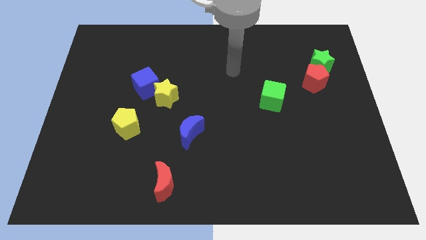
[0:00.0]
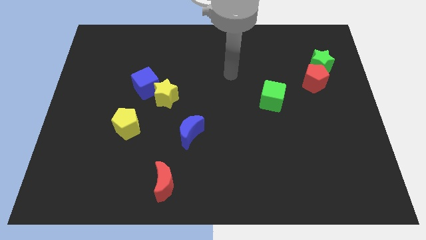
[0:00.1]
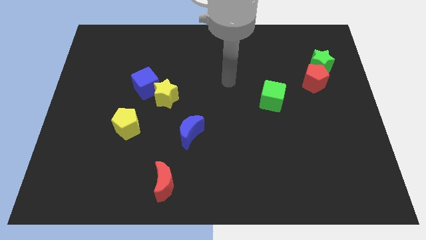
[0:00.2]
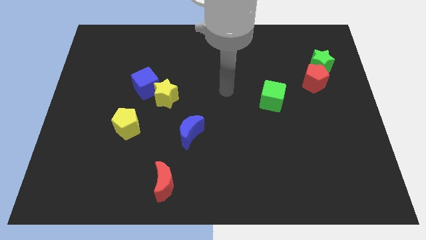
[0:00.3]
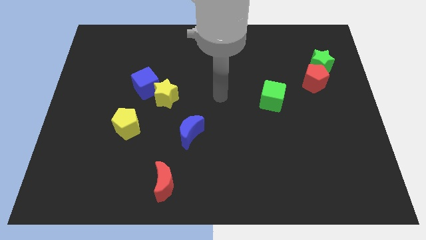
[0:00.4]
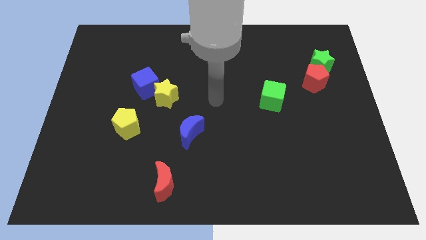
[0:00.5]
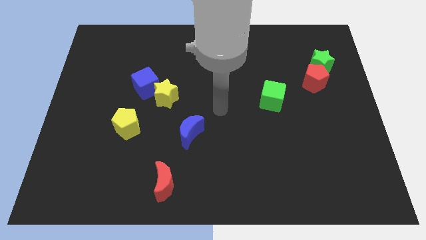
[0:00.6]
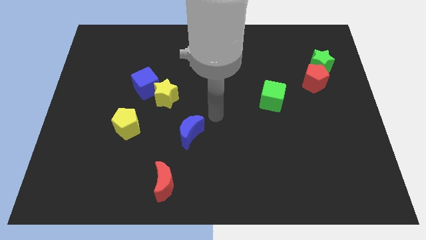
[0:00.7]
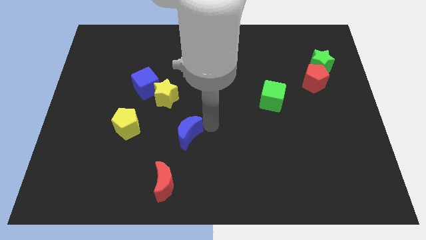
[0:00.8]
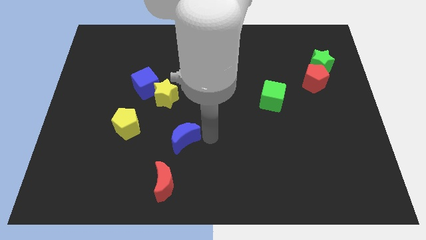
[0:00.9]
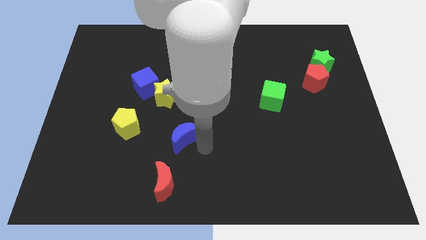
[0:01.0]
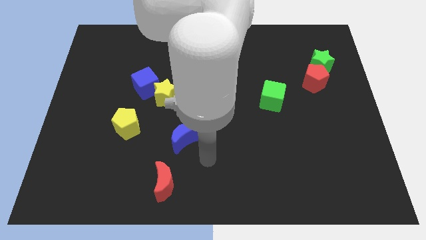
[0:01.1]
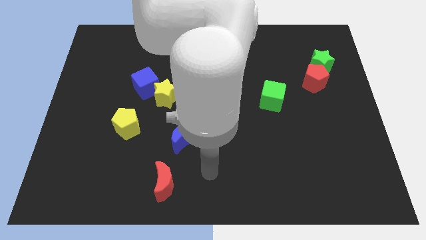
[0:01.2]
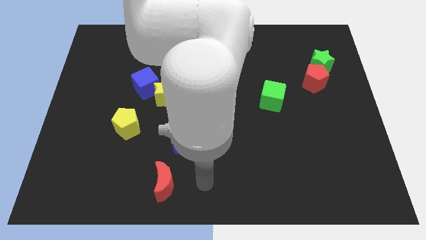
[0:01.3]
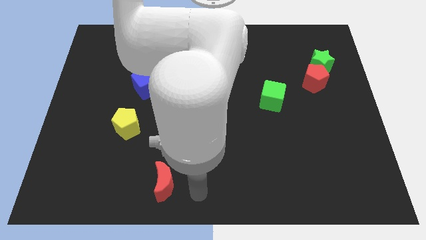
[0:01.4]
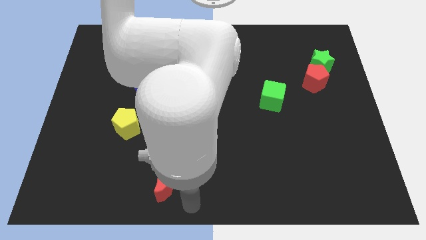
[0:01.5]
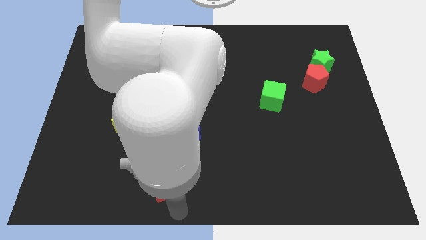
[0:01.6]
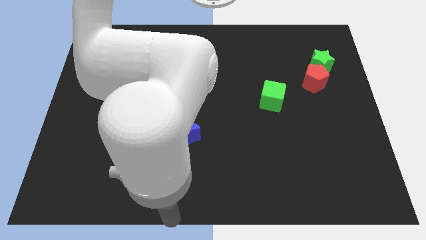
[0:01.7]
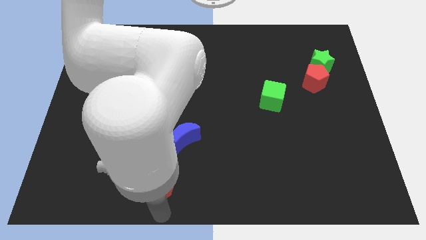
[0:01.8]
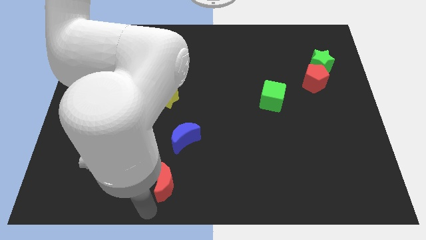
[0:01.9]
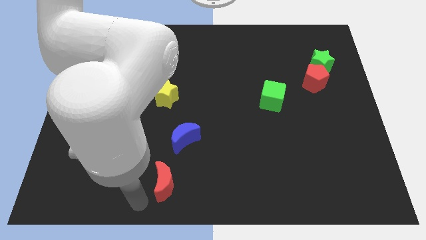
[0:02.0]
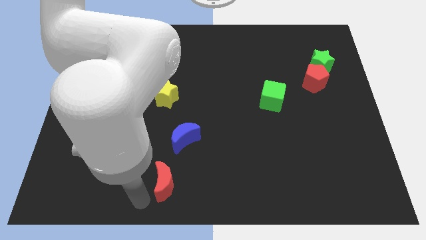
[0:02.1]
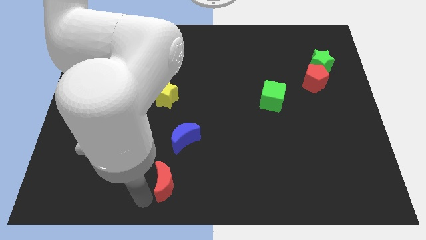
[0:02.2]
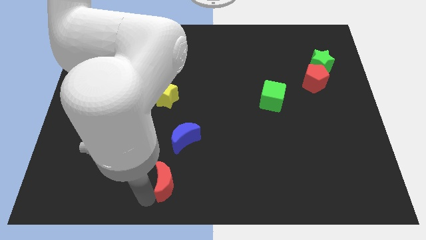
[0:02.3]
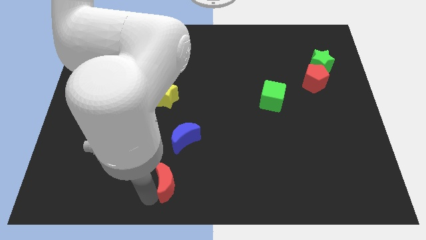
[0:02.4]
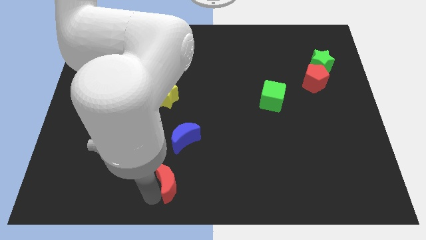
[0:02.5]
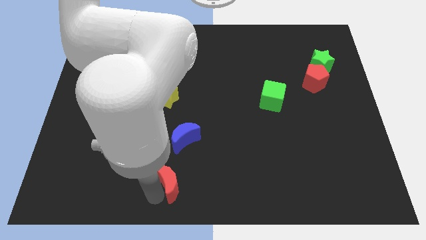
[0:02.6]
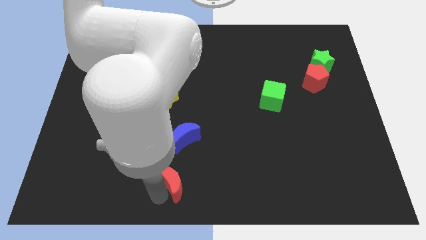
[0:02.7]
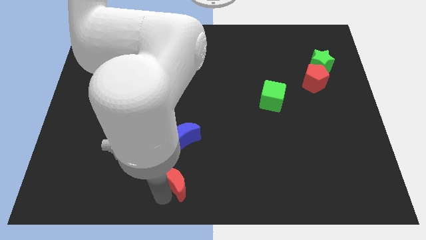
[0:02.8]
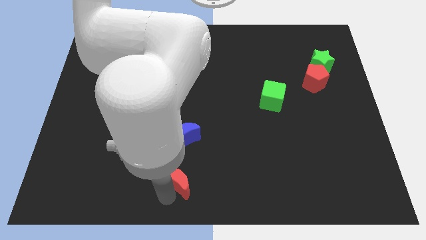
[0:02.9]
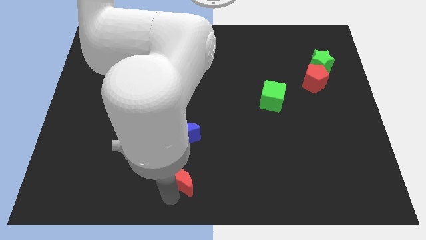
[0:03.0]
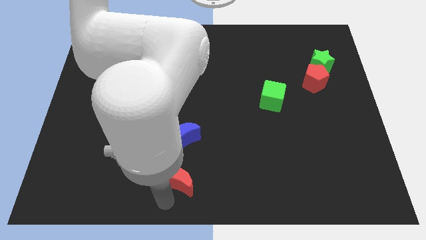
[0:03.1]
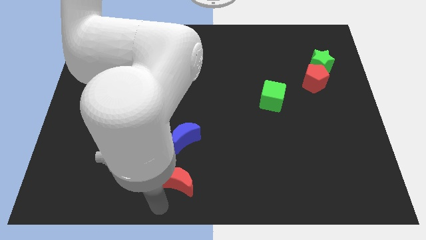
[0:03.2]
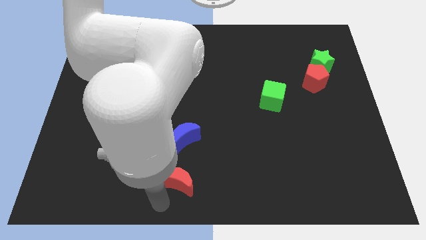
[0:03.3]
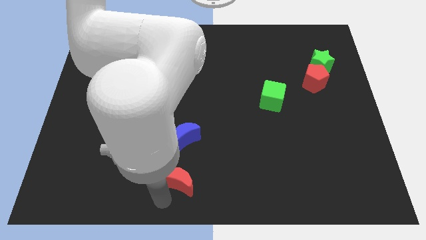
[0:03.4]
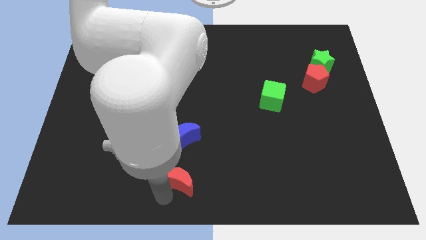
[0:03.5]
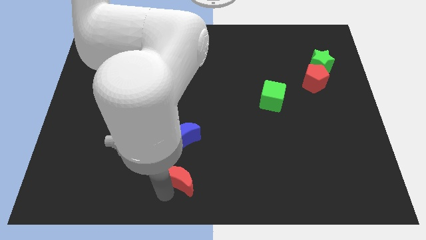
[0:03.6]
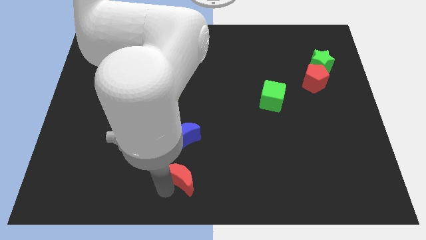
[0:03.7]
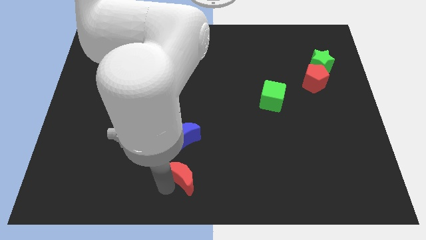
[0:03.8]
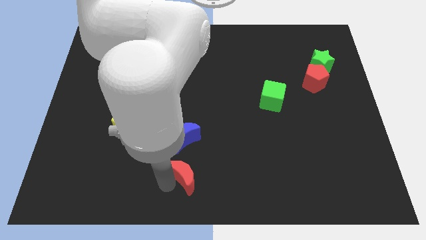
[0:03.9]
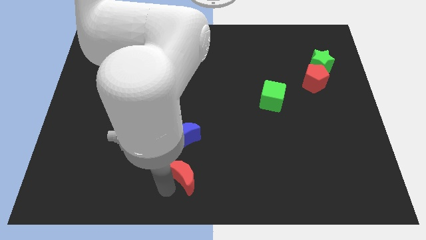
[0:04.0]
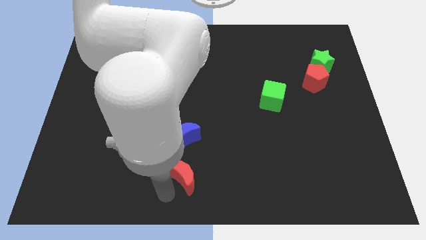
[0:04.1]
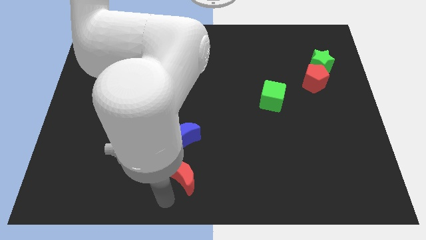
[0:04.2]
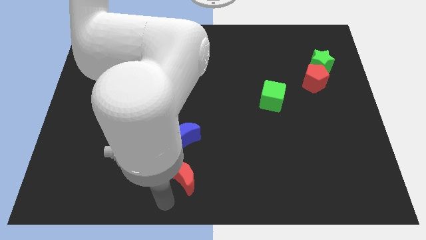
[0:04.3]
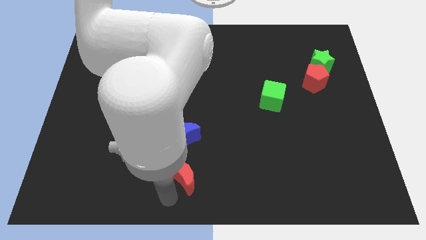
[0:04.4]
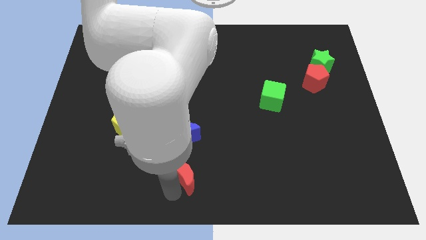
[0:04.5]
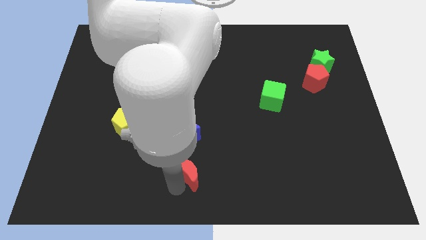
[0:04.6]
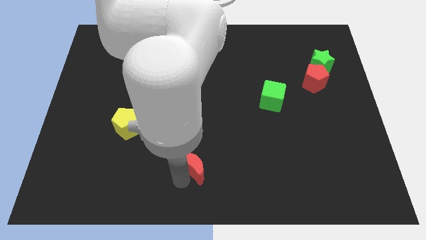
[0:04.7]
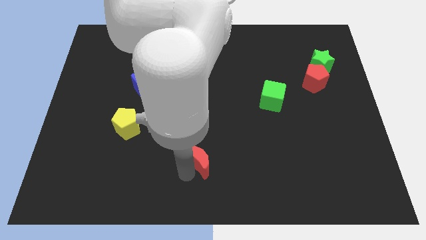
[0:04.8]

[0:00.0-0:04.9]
slightly slide the red moon upwards and then to the right

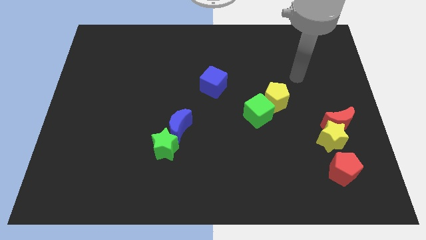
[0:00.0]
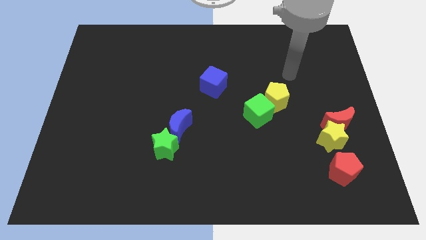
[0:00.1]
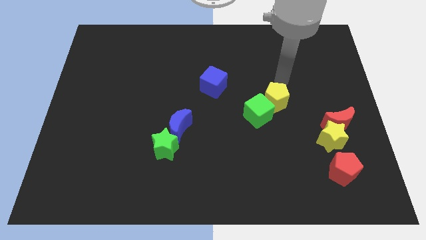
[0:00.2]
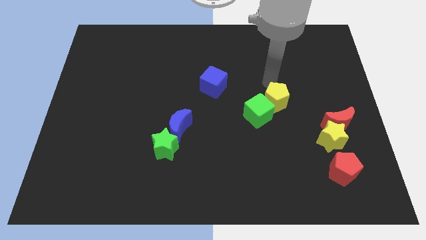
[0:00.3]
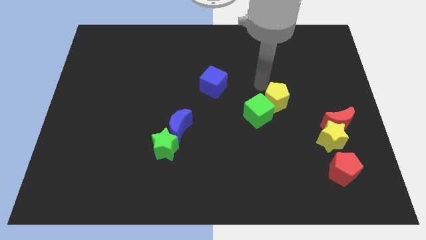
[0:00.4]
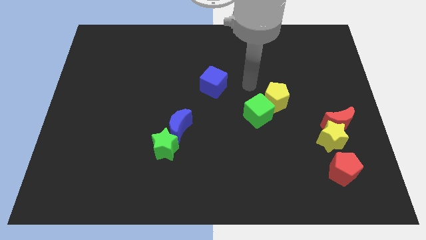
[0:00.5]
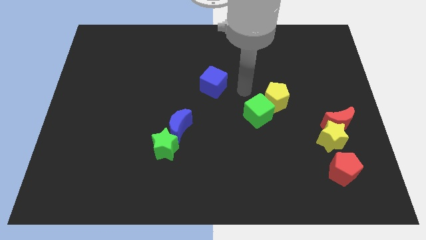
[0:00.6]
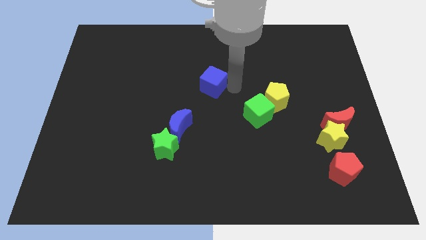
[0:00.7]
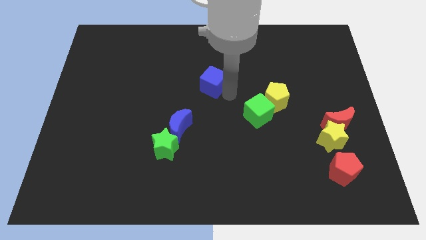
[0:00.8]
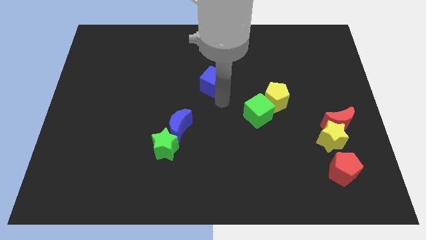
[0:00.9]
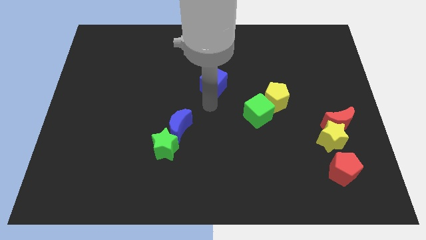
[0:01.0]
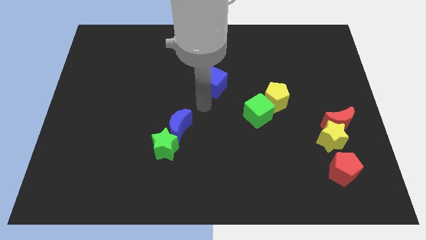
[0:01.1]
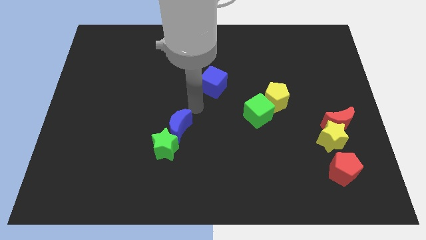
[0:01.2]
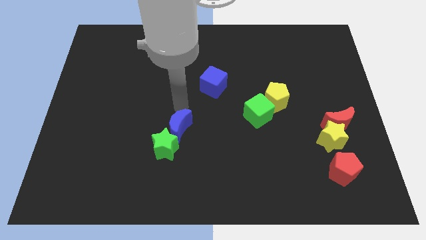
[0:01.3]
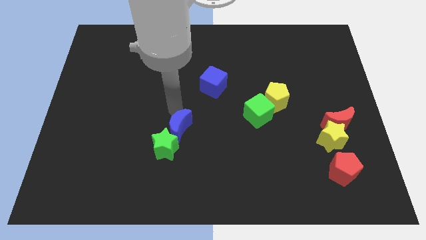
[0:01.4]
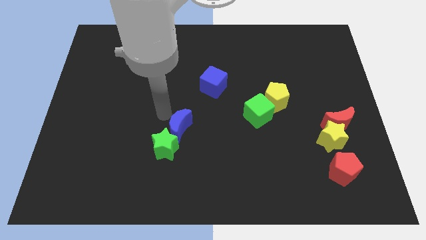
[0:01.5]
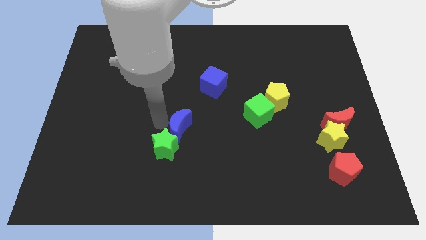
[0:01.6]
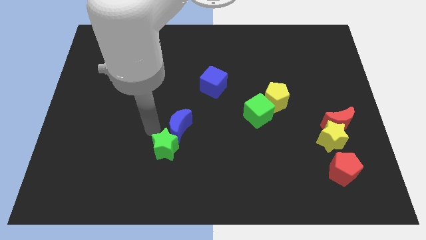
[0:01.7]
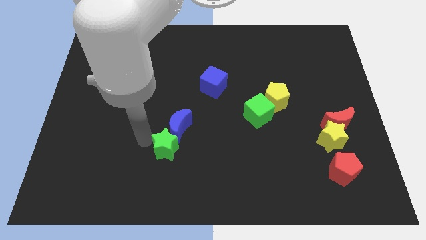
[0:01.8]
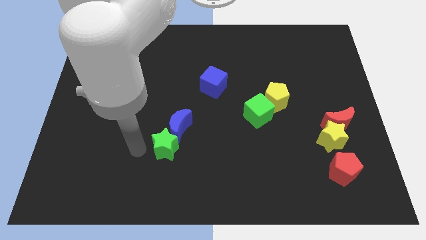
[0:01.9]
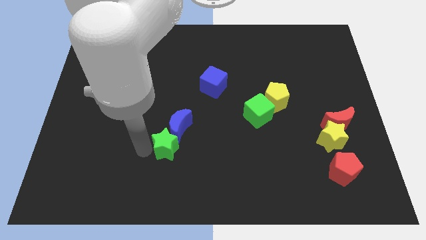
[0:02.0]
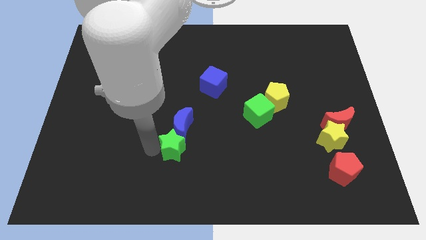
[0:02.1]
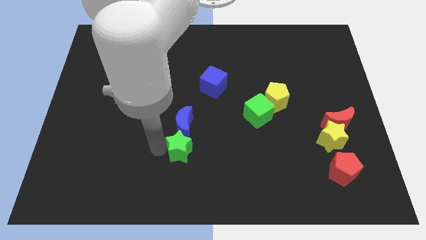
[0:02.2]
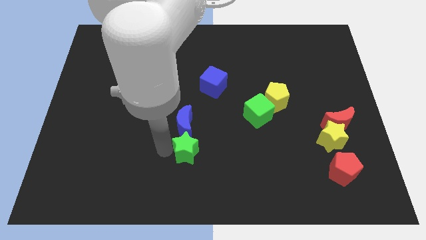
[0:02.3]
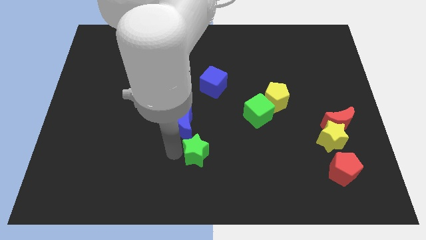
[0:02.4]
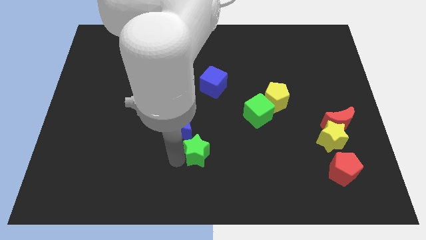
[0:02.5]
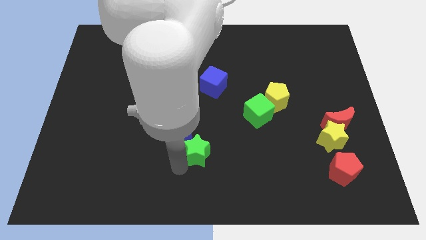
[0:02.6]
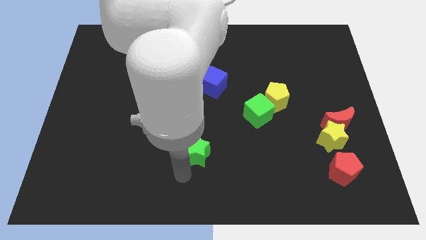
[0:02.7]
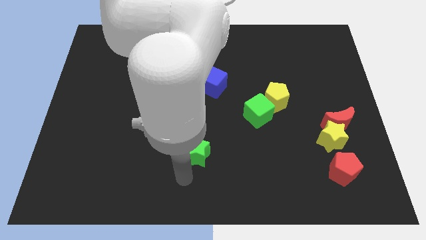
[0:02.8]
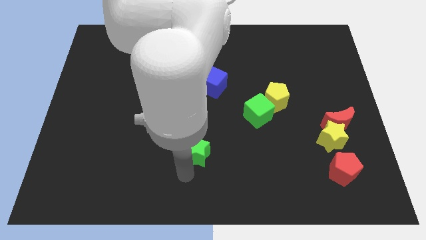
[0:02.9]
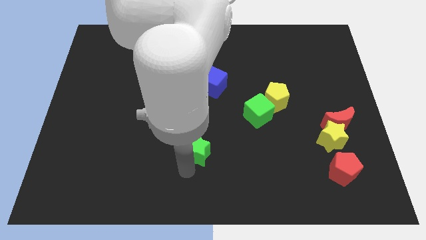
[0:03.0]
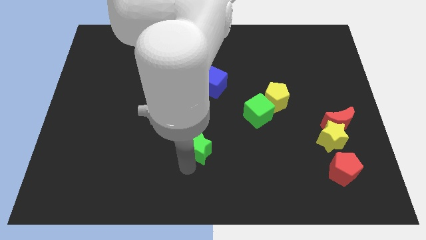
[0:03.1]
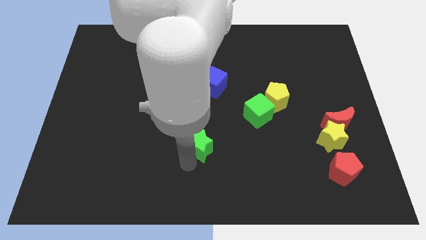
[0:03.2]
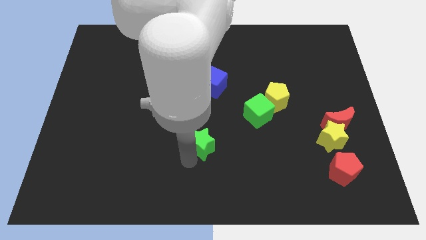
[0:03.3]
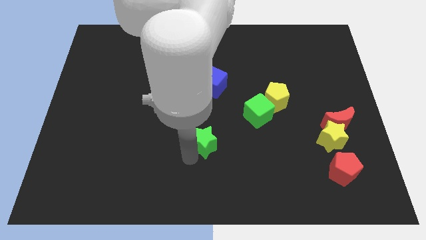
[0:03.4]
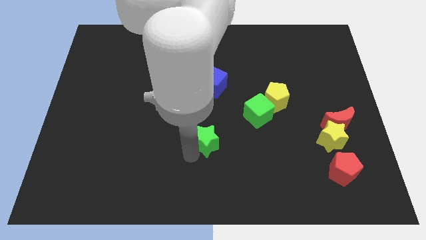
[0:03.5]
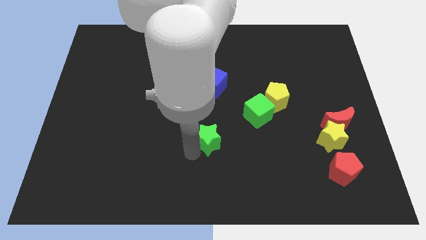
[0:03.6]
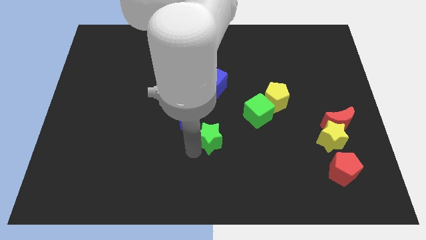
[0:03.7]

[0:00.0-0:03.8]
slide the green star upwards and then right a little
